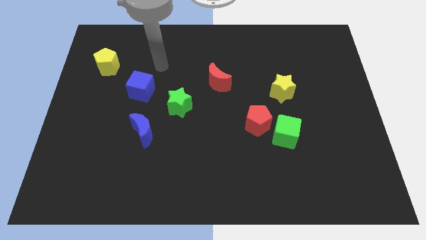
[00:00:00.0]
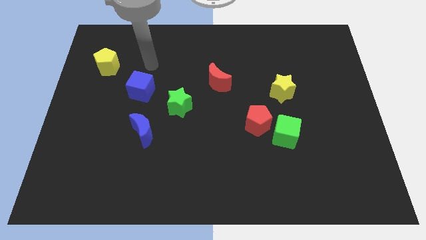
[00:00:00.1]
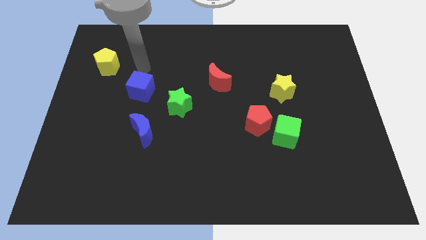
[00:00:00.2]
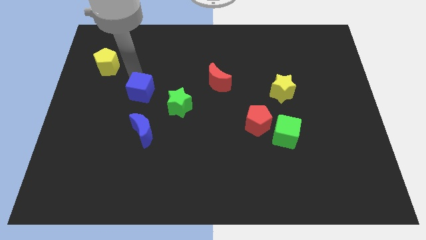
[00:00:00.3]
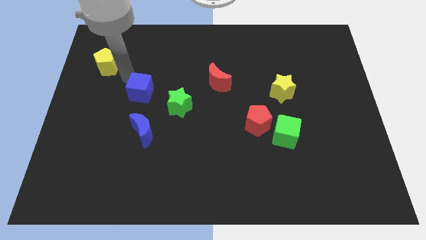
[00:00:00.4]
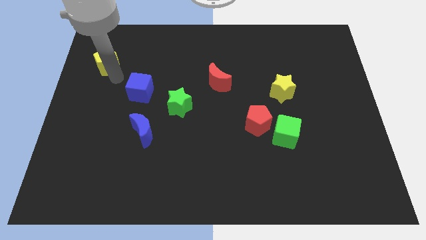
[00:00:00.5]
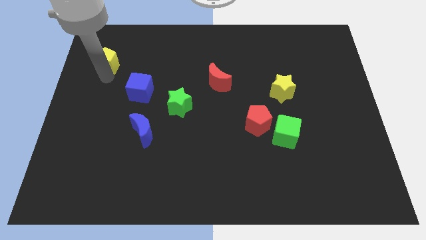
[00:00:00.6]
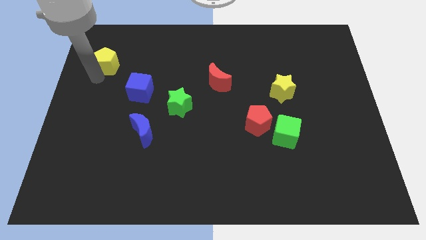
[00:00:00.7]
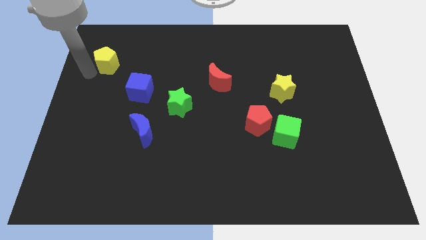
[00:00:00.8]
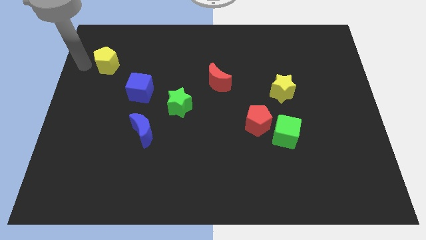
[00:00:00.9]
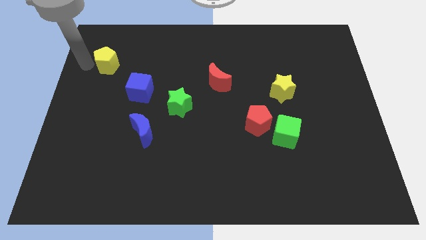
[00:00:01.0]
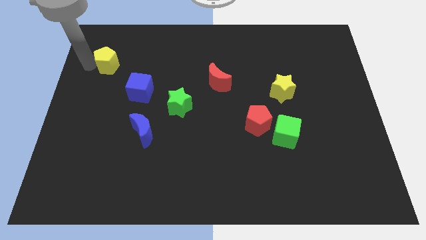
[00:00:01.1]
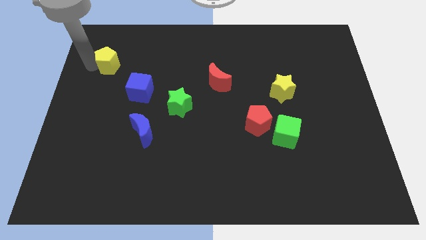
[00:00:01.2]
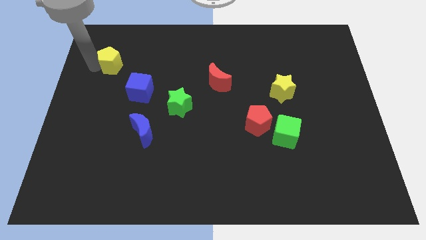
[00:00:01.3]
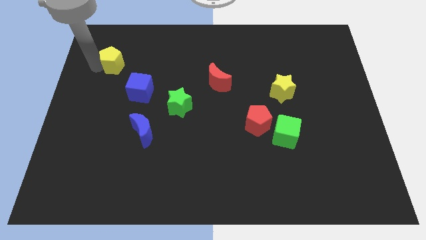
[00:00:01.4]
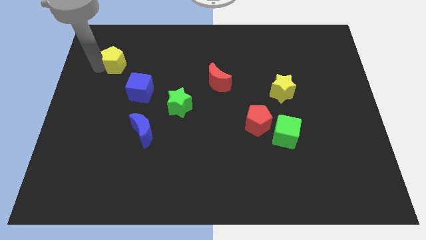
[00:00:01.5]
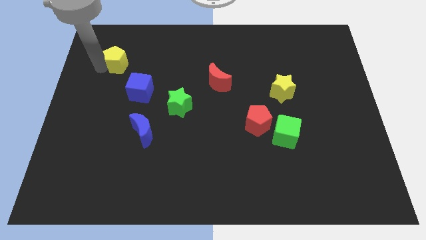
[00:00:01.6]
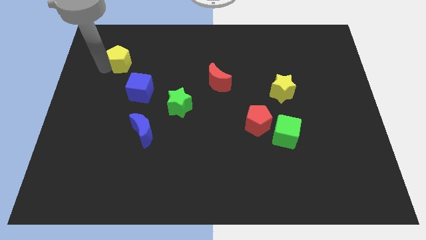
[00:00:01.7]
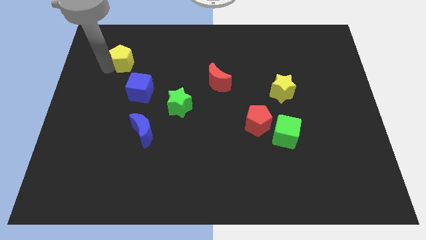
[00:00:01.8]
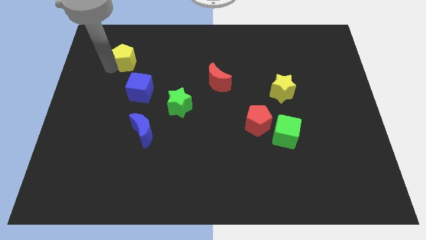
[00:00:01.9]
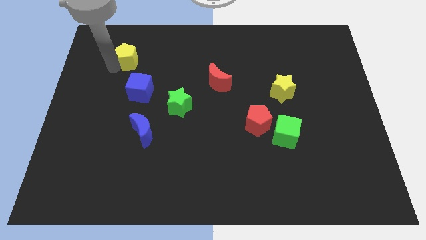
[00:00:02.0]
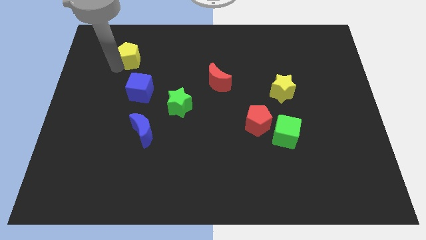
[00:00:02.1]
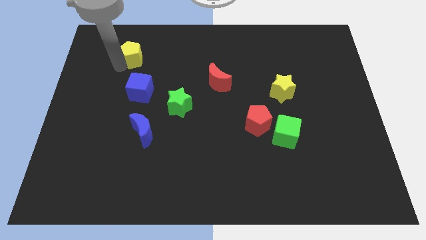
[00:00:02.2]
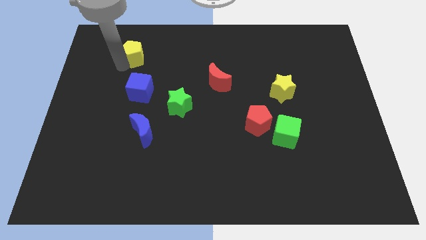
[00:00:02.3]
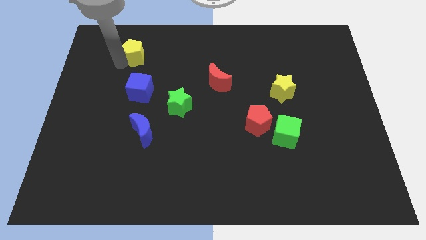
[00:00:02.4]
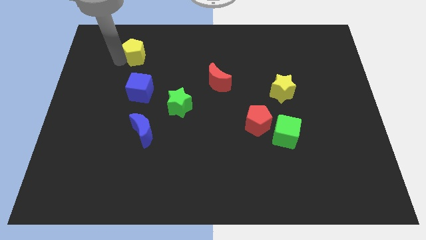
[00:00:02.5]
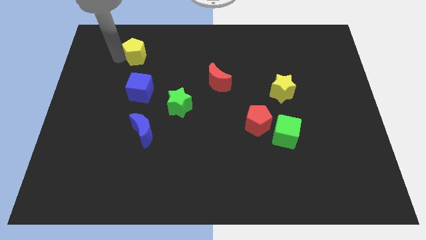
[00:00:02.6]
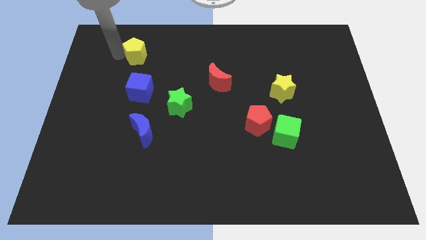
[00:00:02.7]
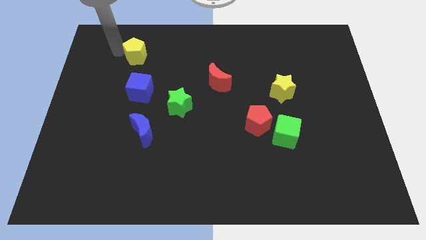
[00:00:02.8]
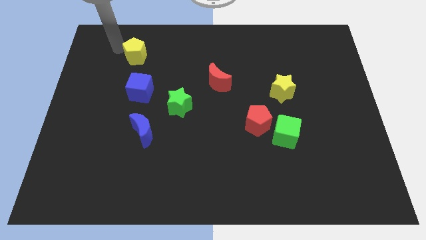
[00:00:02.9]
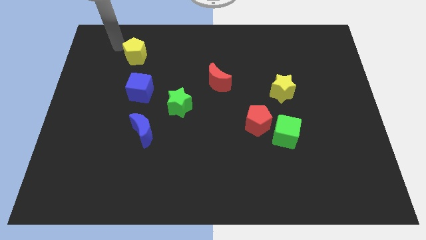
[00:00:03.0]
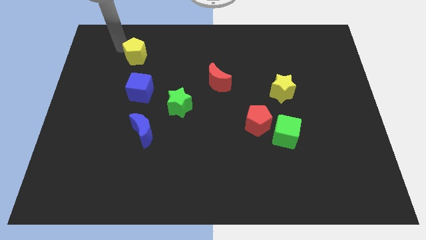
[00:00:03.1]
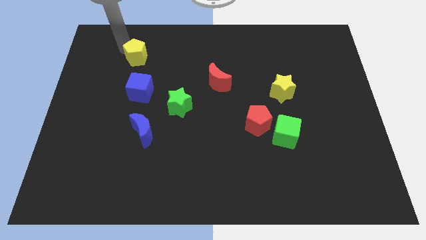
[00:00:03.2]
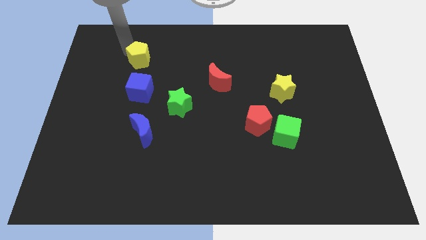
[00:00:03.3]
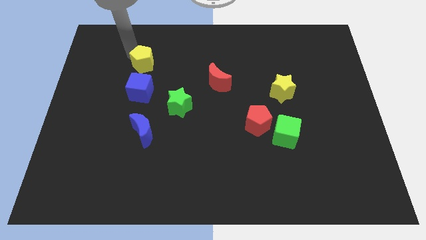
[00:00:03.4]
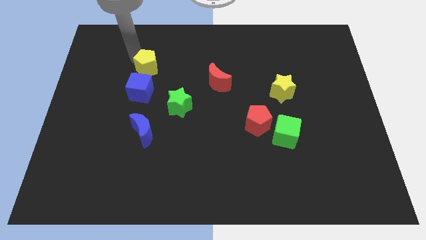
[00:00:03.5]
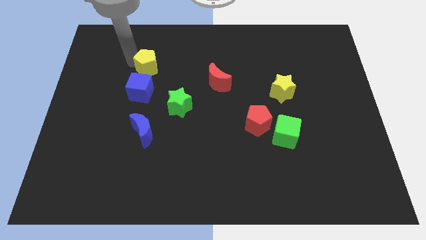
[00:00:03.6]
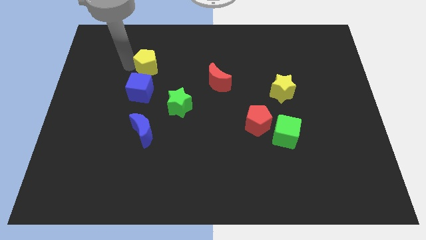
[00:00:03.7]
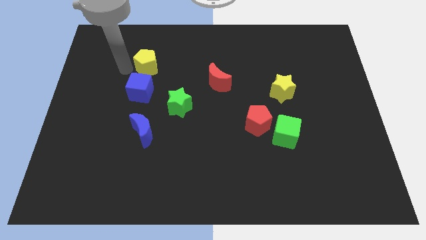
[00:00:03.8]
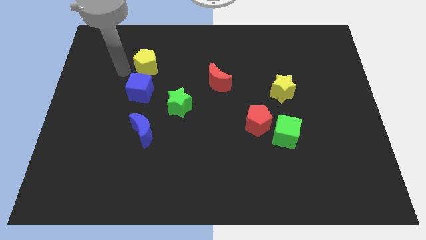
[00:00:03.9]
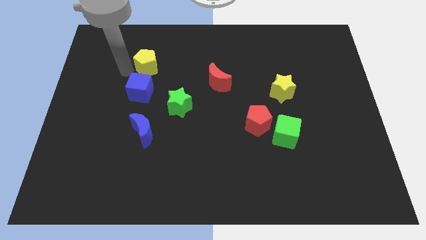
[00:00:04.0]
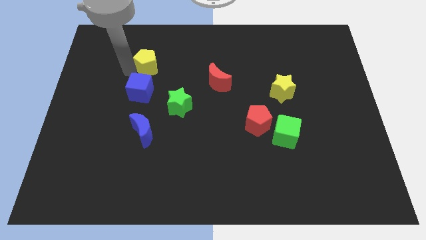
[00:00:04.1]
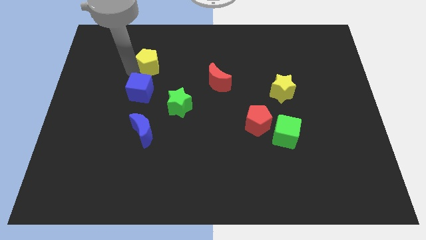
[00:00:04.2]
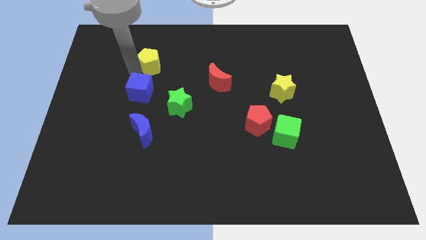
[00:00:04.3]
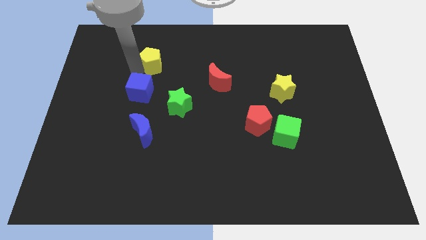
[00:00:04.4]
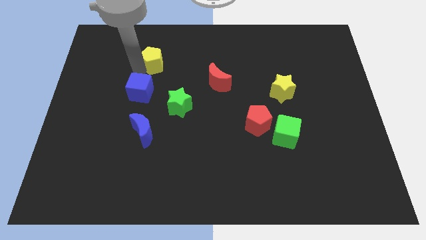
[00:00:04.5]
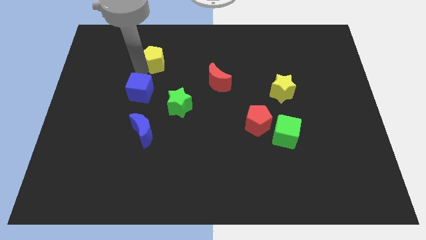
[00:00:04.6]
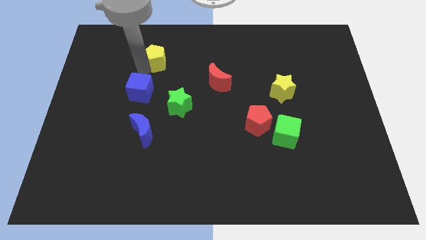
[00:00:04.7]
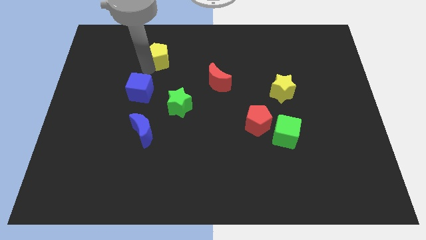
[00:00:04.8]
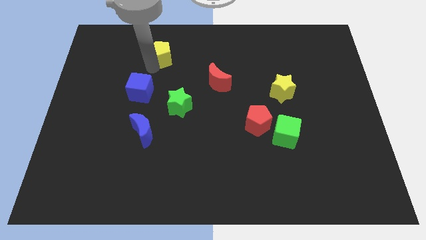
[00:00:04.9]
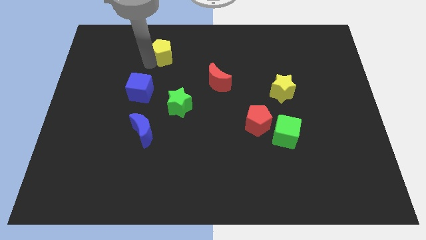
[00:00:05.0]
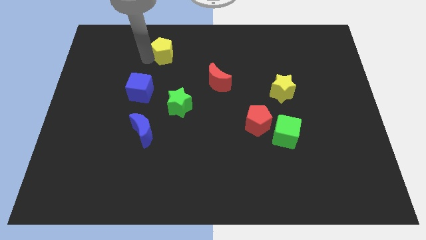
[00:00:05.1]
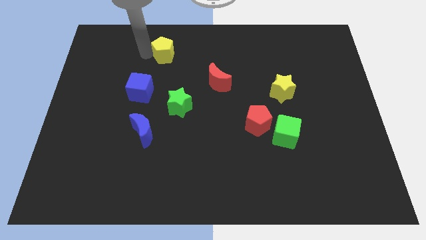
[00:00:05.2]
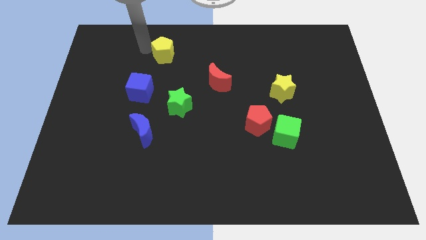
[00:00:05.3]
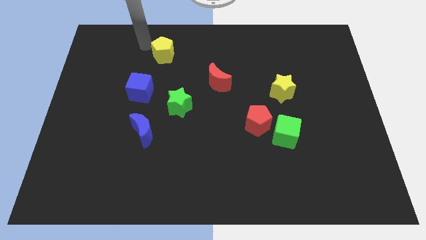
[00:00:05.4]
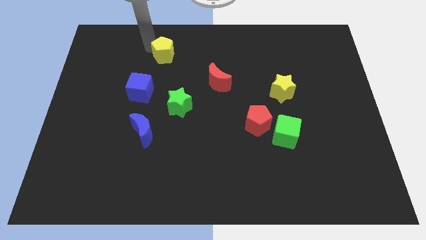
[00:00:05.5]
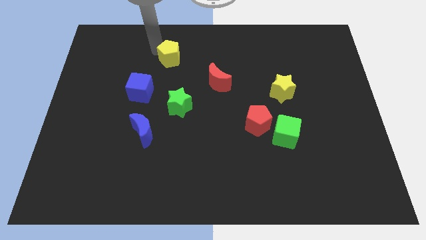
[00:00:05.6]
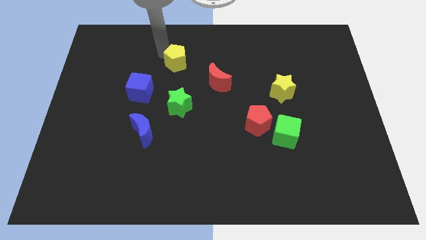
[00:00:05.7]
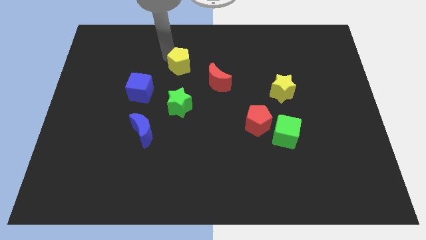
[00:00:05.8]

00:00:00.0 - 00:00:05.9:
put the yellow pentagon to the top left of the red moon

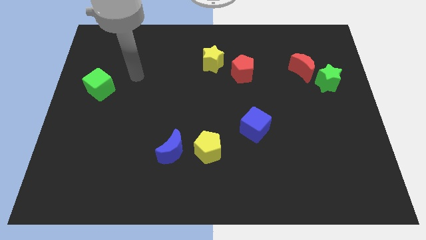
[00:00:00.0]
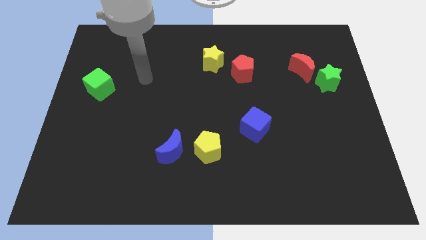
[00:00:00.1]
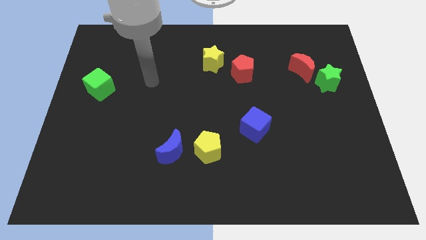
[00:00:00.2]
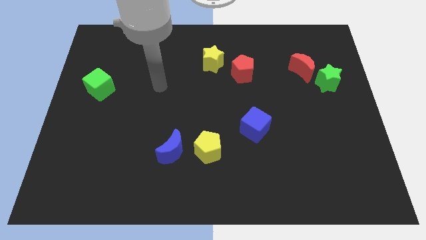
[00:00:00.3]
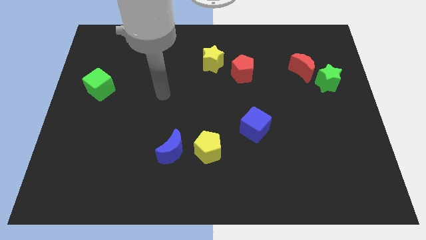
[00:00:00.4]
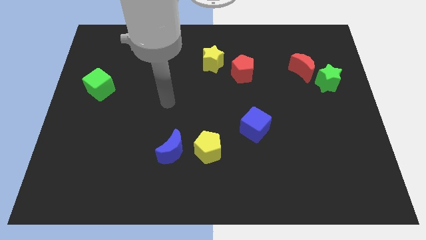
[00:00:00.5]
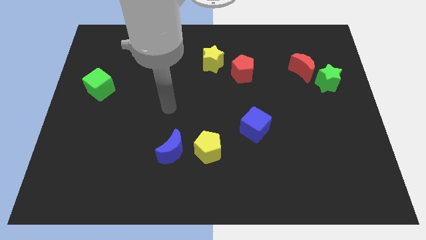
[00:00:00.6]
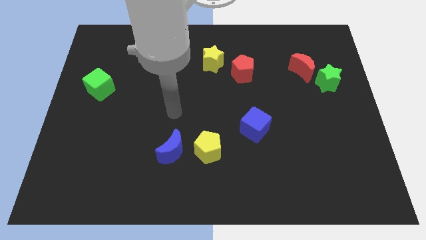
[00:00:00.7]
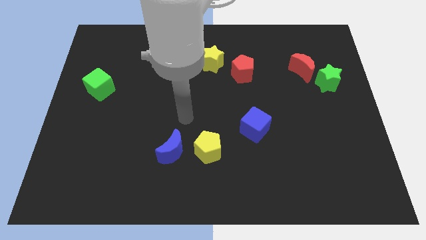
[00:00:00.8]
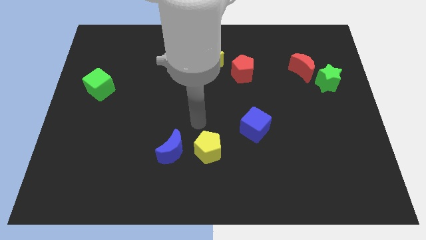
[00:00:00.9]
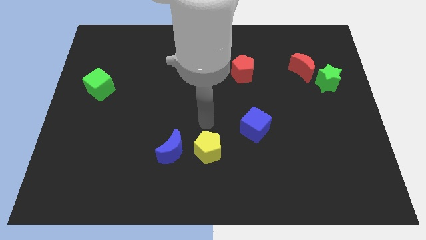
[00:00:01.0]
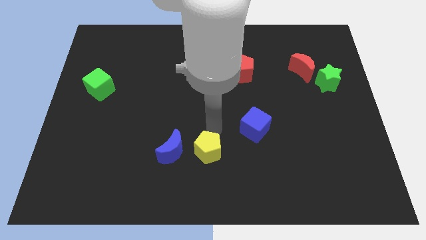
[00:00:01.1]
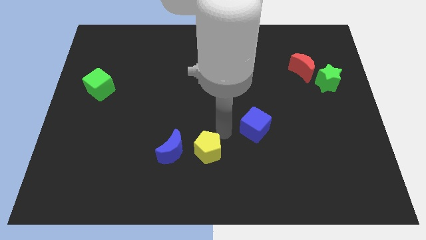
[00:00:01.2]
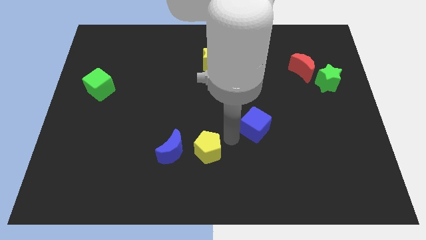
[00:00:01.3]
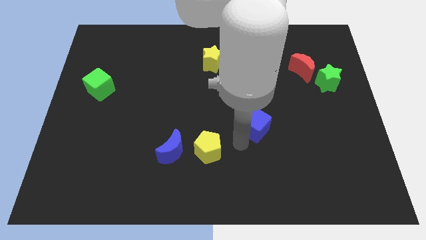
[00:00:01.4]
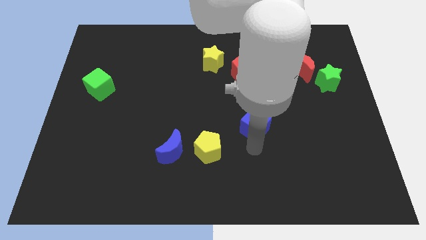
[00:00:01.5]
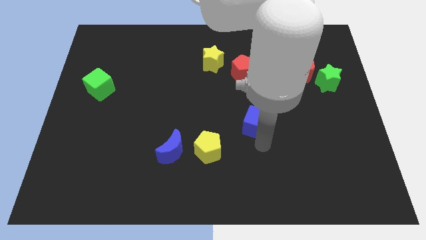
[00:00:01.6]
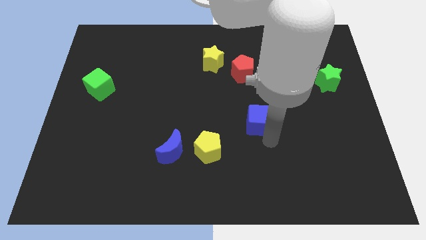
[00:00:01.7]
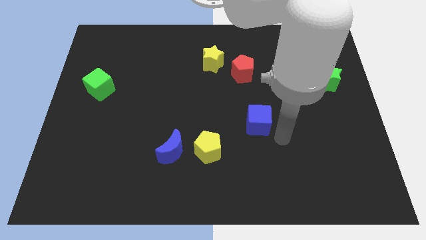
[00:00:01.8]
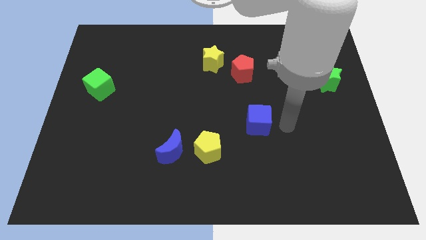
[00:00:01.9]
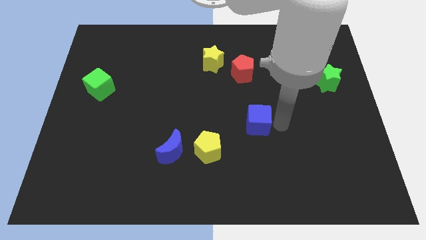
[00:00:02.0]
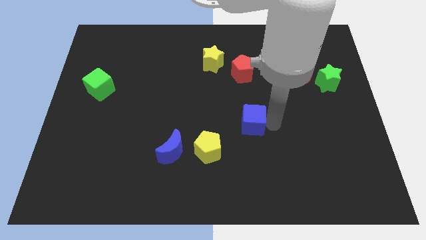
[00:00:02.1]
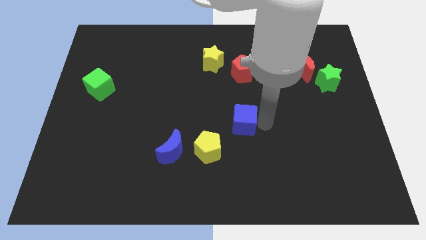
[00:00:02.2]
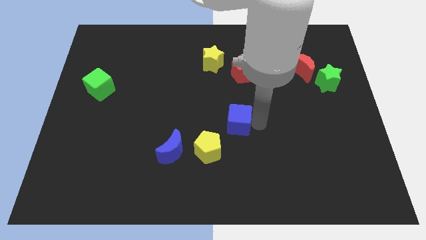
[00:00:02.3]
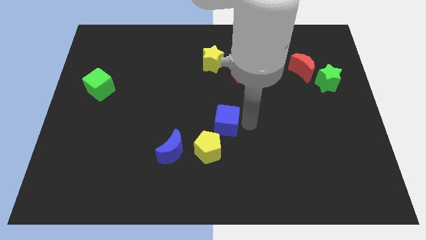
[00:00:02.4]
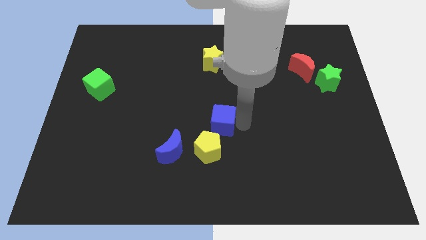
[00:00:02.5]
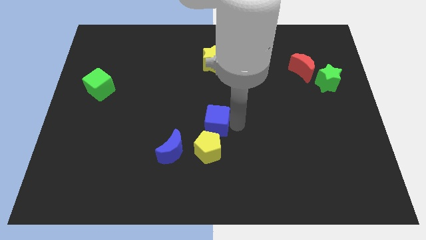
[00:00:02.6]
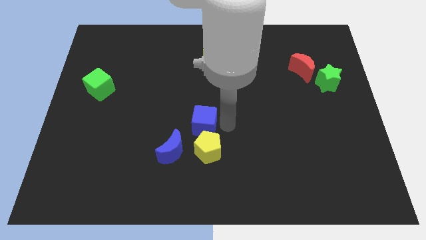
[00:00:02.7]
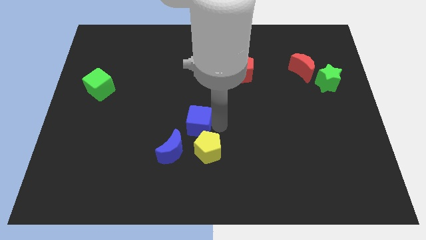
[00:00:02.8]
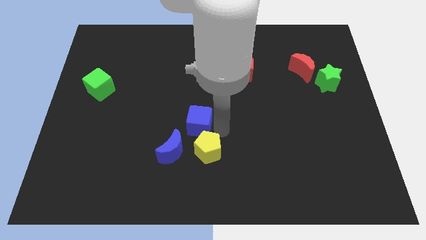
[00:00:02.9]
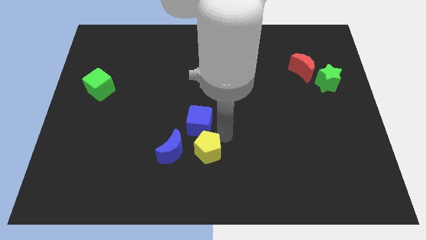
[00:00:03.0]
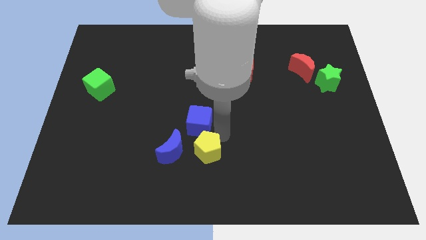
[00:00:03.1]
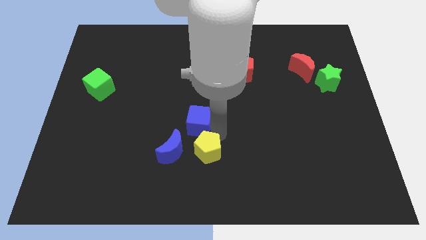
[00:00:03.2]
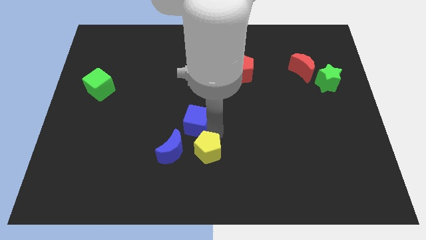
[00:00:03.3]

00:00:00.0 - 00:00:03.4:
move the blue cube to the top side of the blue moon
